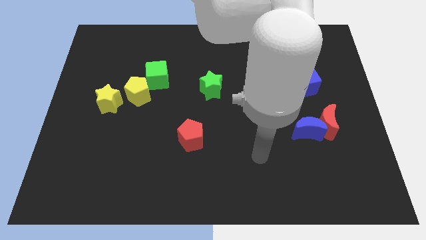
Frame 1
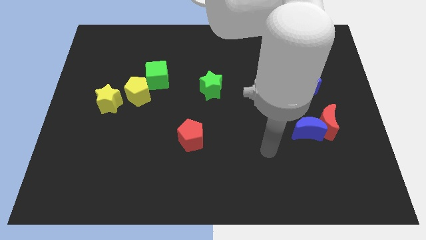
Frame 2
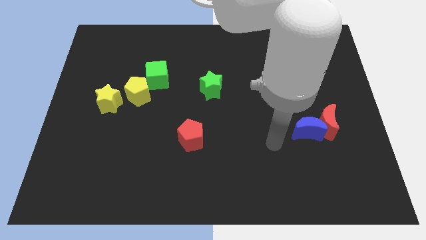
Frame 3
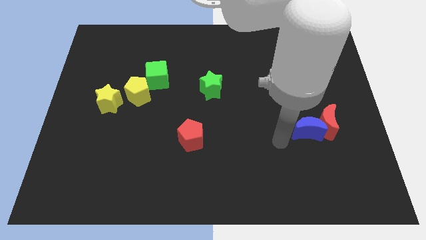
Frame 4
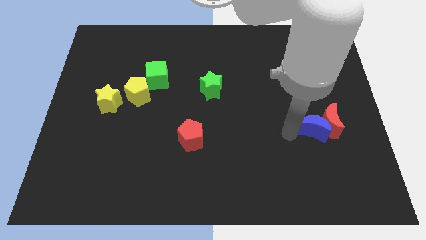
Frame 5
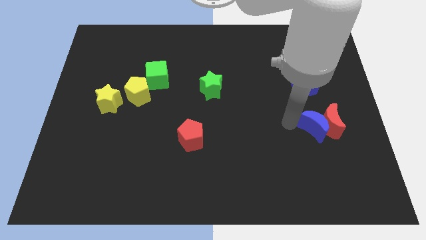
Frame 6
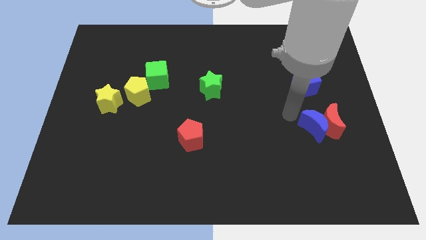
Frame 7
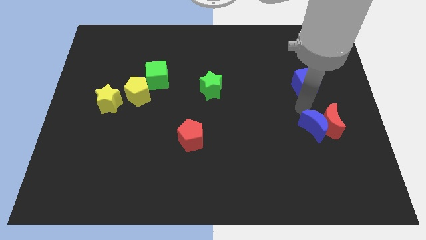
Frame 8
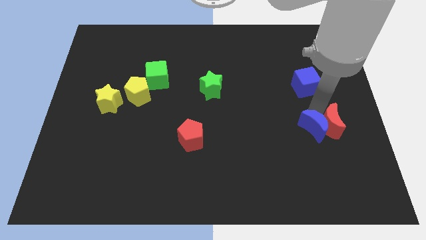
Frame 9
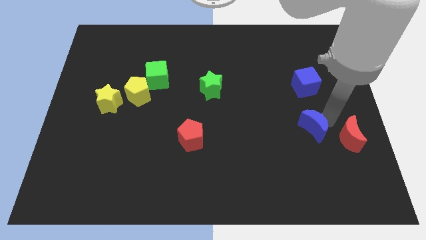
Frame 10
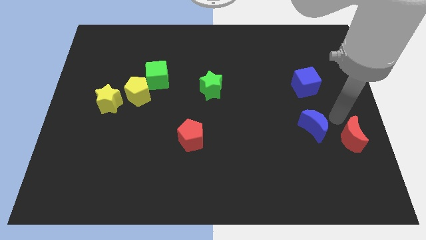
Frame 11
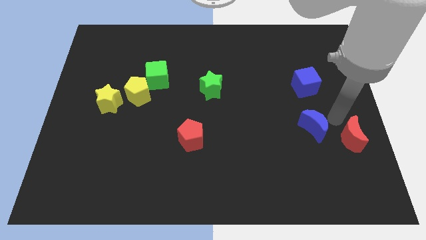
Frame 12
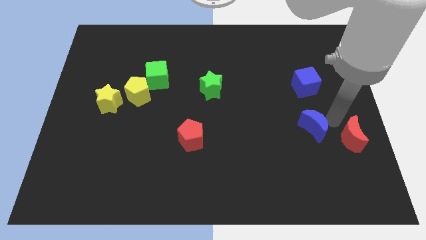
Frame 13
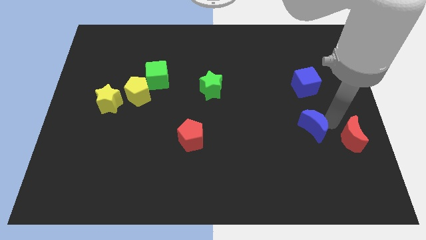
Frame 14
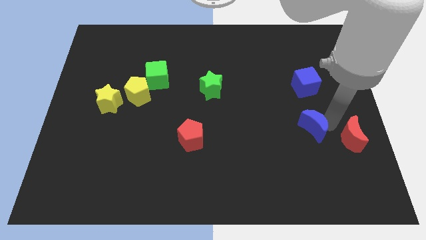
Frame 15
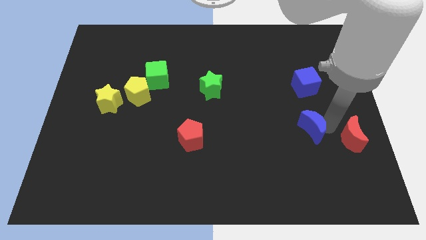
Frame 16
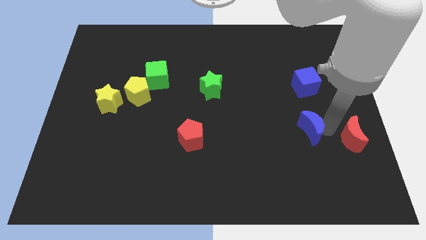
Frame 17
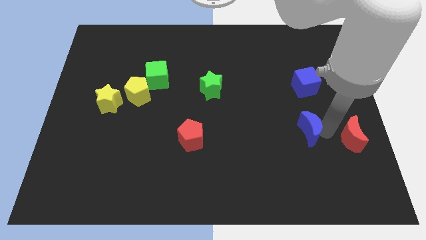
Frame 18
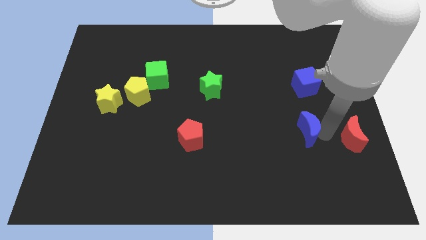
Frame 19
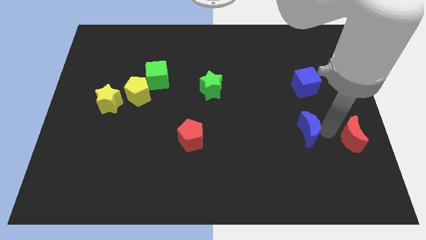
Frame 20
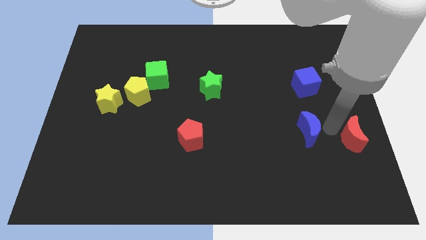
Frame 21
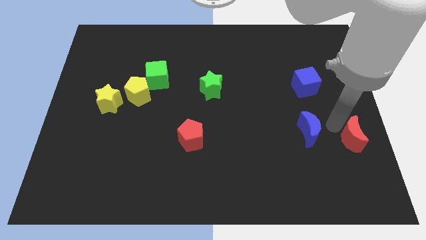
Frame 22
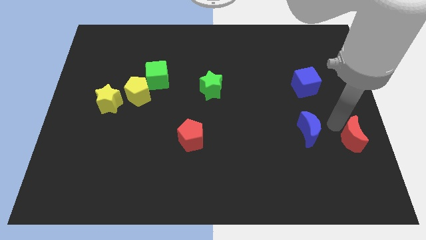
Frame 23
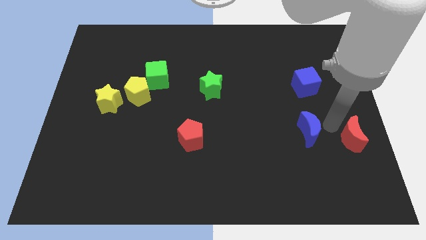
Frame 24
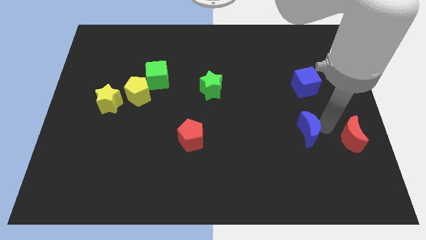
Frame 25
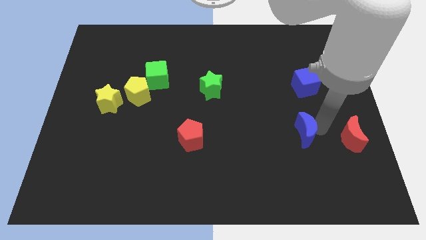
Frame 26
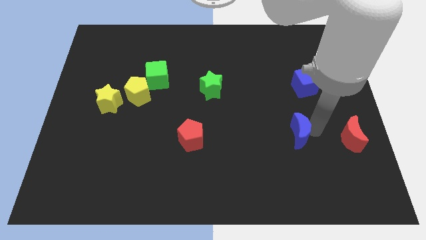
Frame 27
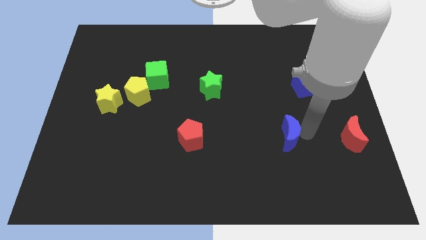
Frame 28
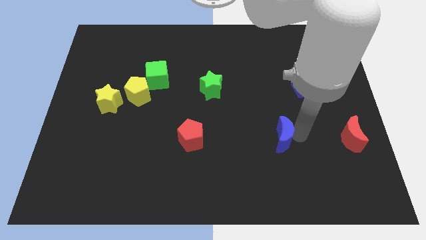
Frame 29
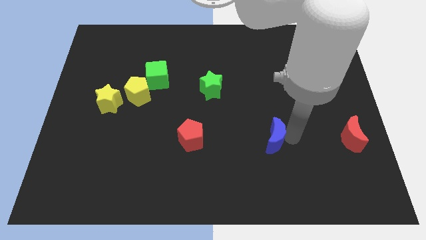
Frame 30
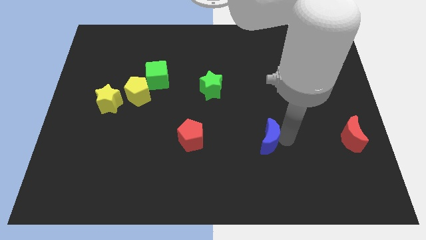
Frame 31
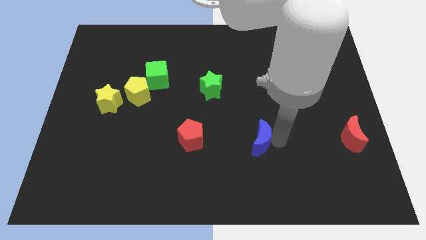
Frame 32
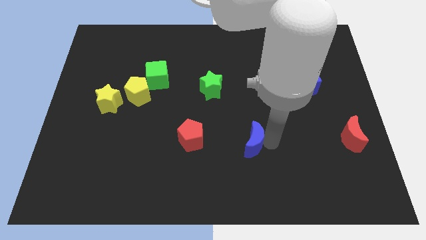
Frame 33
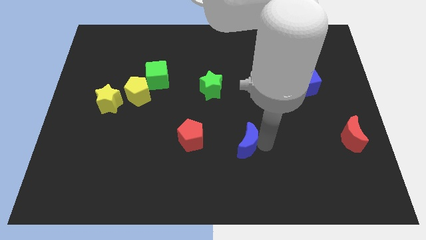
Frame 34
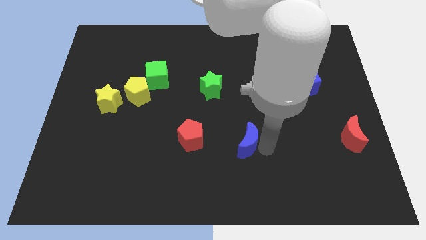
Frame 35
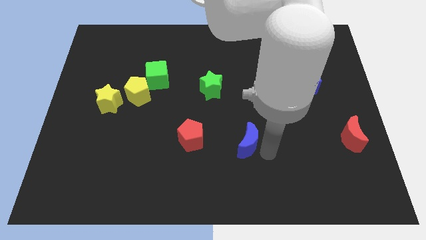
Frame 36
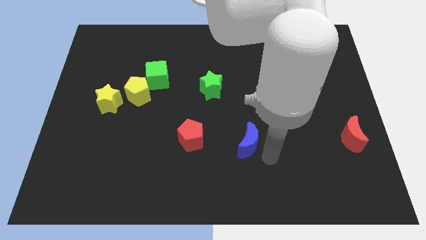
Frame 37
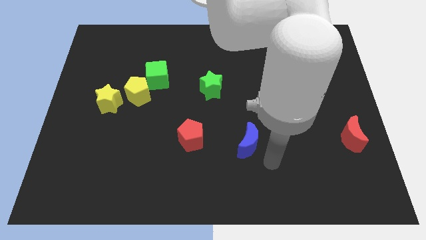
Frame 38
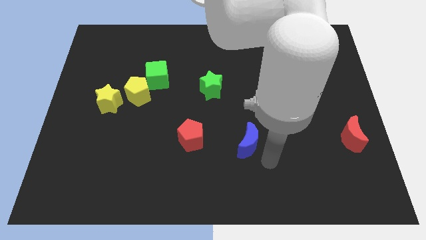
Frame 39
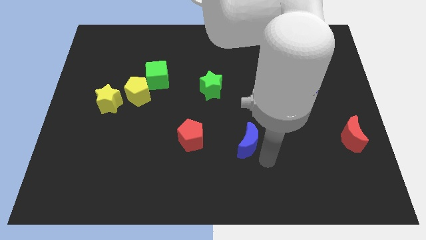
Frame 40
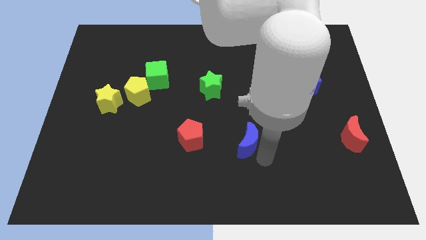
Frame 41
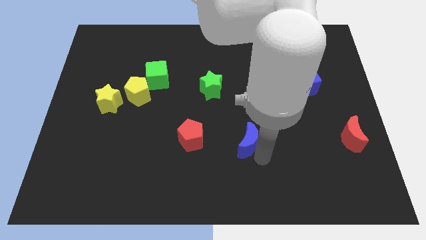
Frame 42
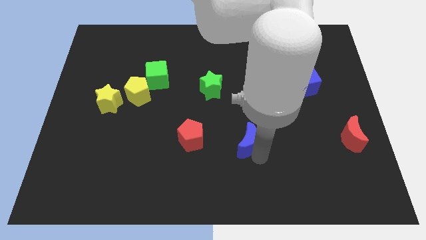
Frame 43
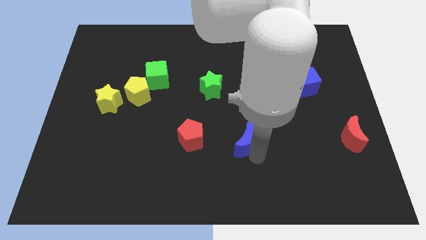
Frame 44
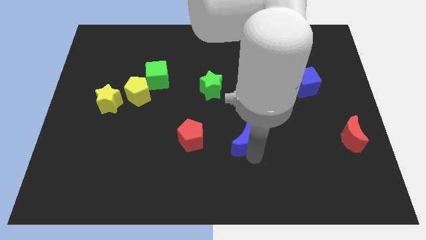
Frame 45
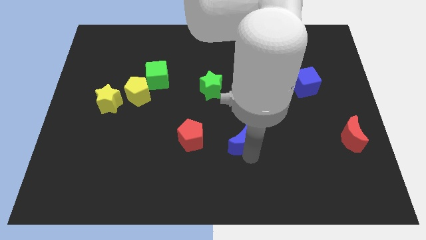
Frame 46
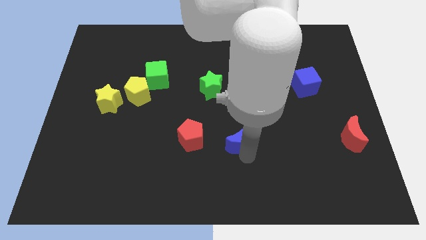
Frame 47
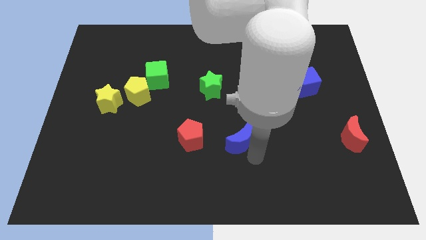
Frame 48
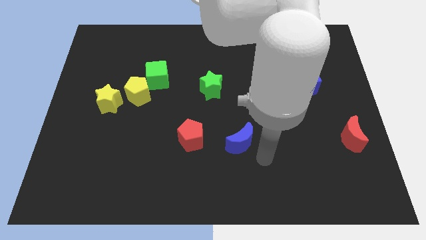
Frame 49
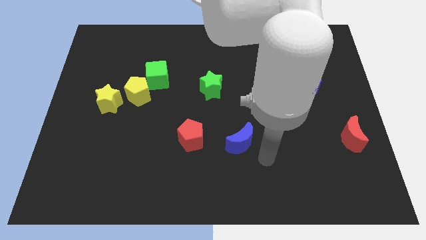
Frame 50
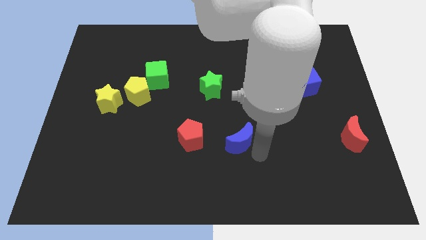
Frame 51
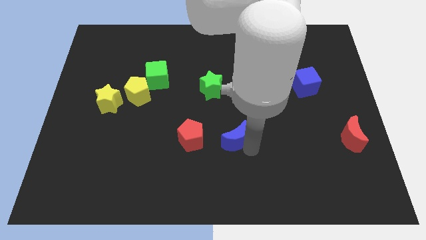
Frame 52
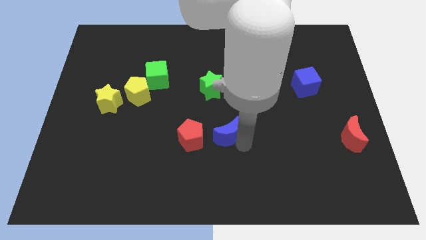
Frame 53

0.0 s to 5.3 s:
move the blue moon below the green star

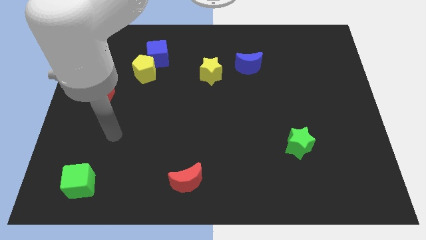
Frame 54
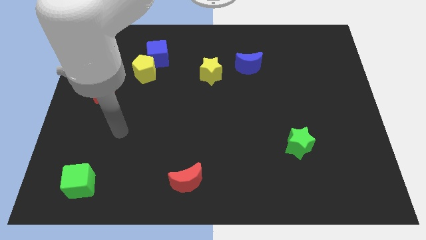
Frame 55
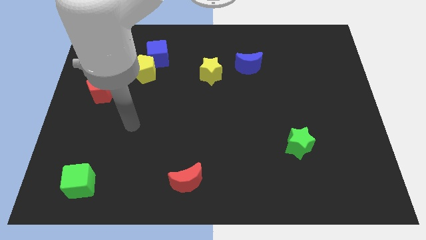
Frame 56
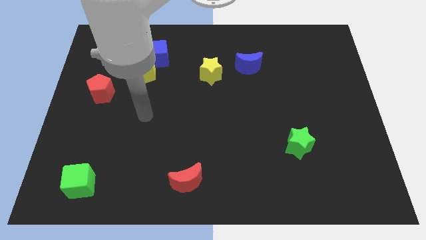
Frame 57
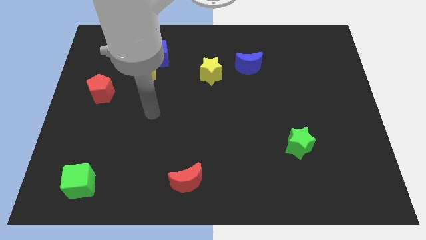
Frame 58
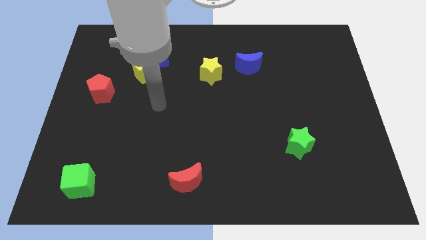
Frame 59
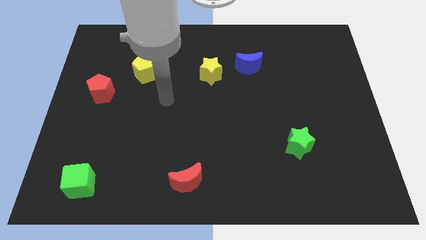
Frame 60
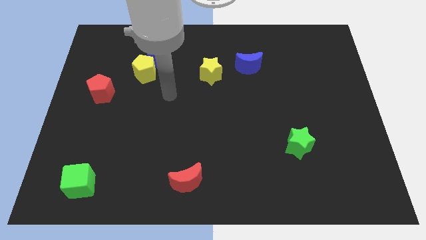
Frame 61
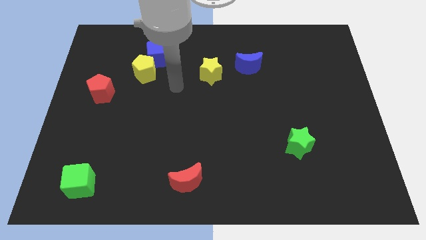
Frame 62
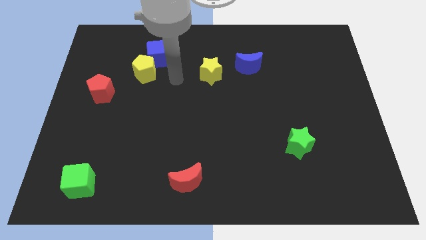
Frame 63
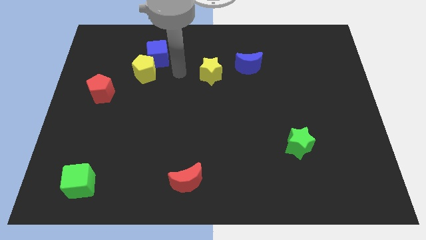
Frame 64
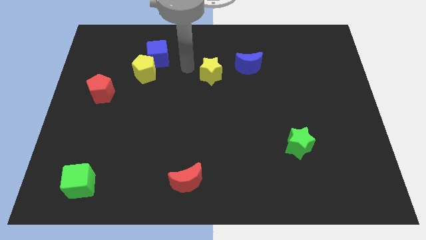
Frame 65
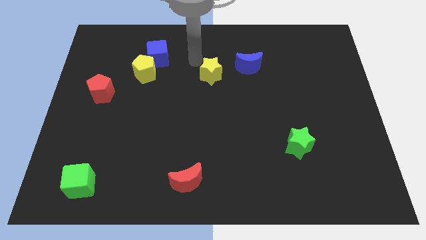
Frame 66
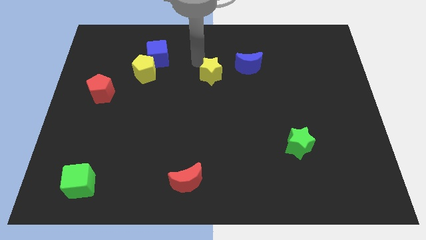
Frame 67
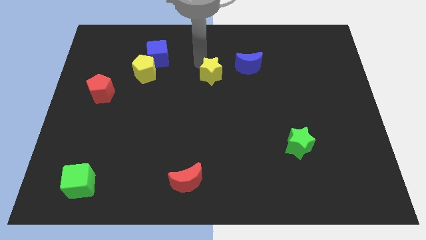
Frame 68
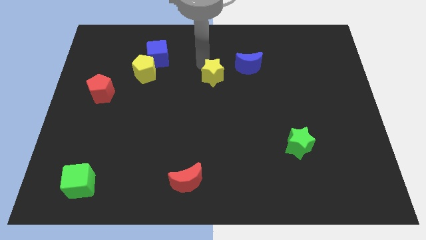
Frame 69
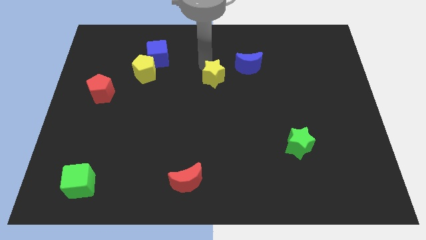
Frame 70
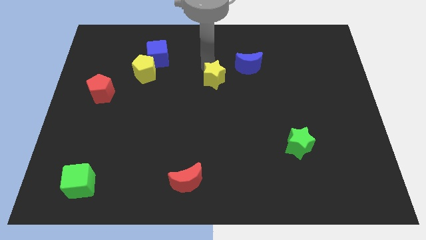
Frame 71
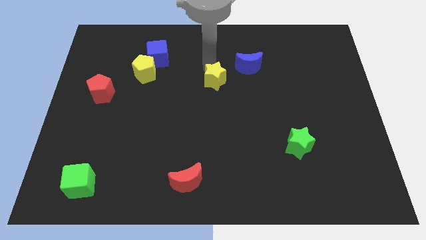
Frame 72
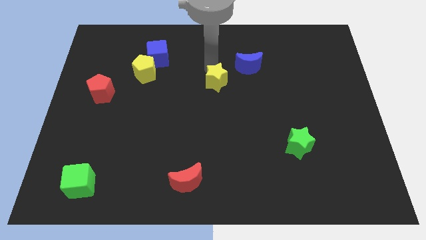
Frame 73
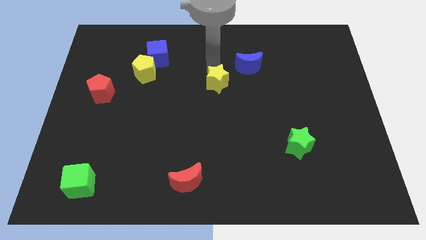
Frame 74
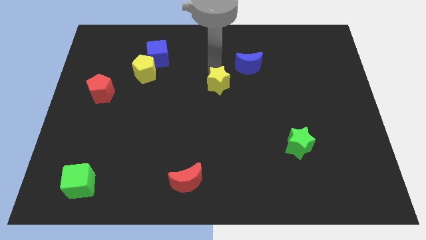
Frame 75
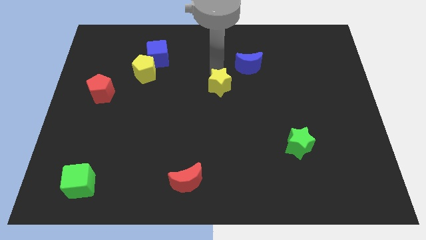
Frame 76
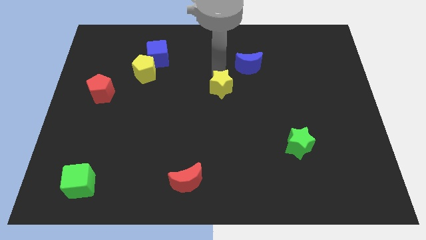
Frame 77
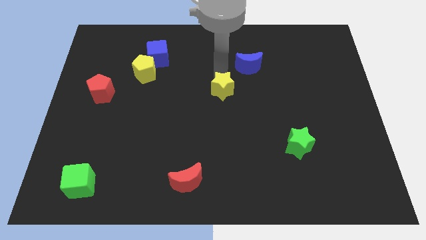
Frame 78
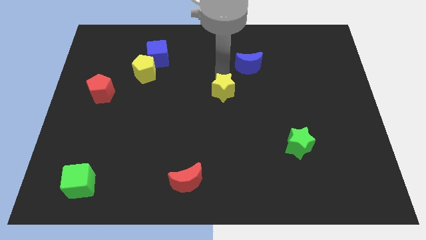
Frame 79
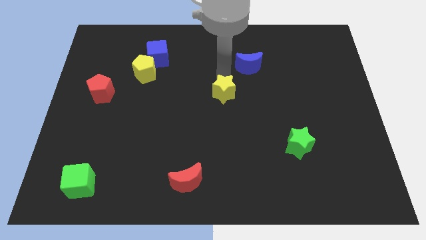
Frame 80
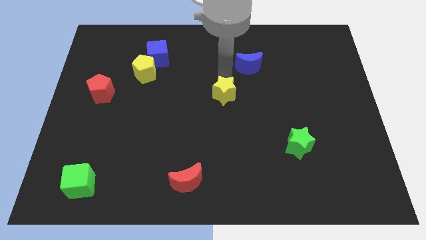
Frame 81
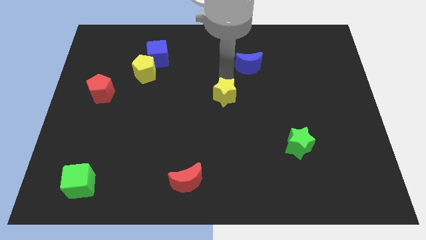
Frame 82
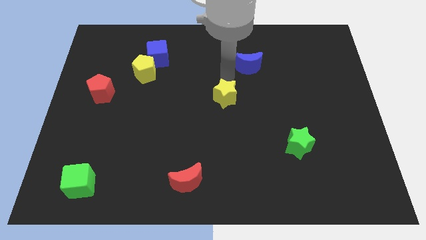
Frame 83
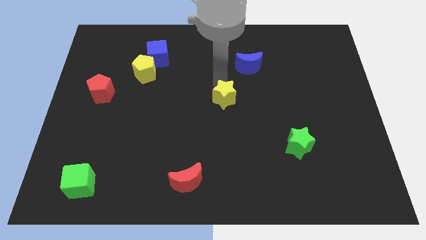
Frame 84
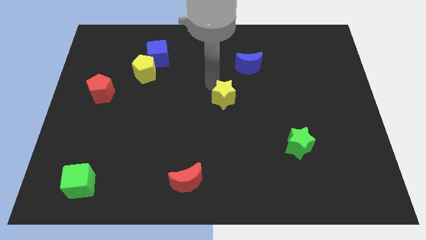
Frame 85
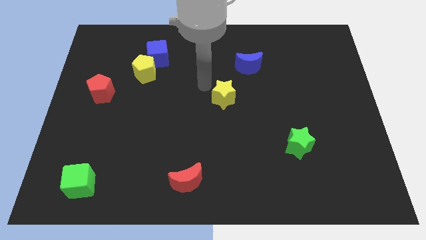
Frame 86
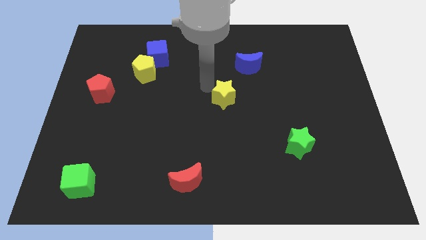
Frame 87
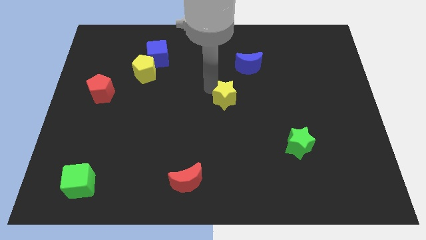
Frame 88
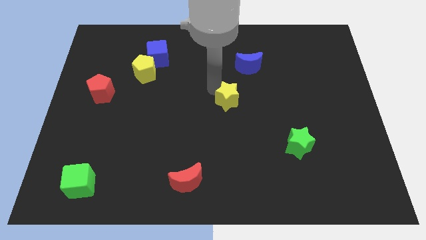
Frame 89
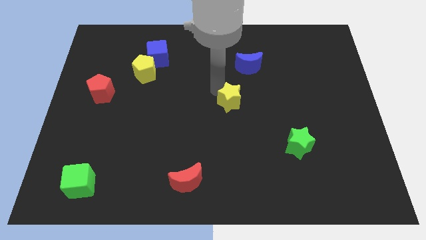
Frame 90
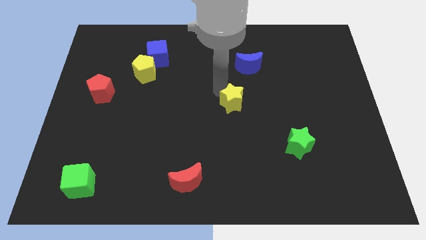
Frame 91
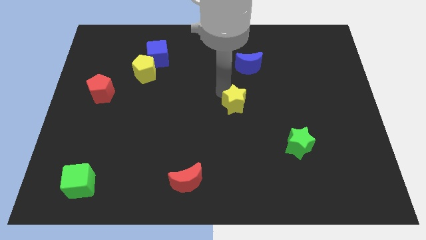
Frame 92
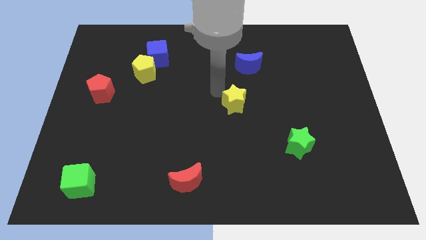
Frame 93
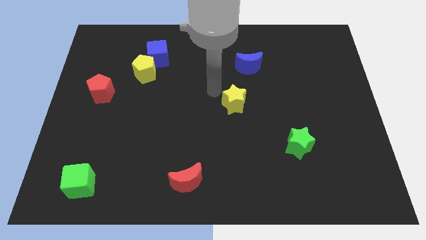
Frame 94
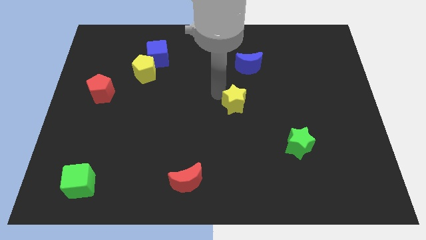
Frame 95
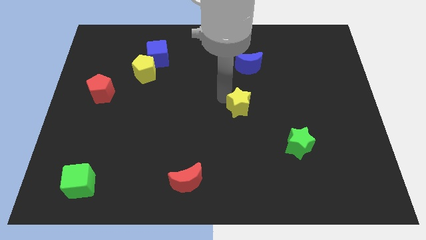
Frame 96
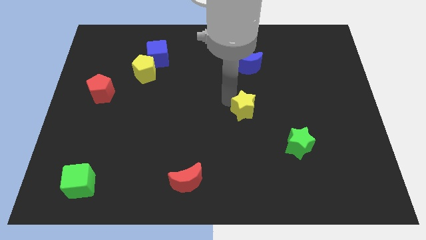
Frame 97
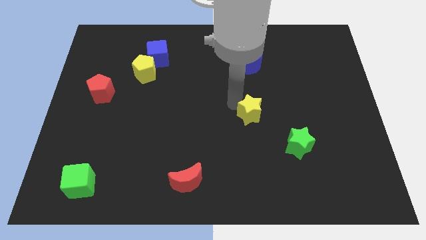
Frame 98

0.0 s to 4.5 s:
put the yellow star diagonally up and to the left of the green star
